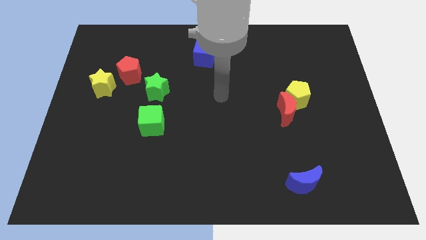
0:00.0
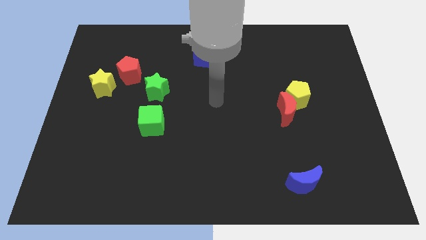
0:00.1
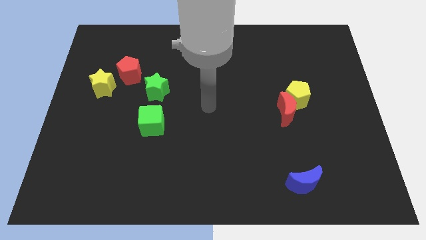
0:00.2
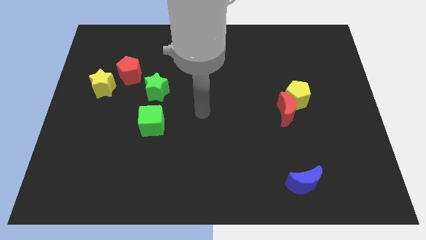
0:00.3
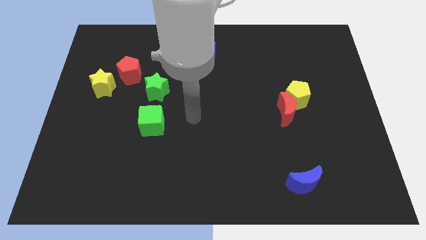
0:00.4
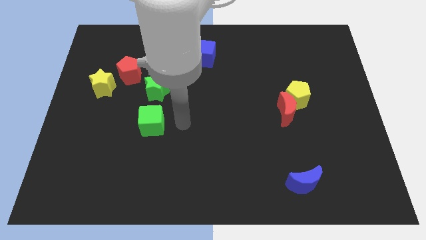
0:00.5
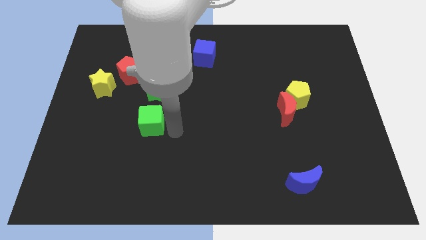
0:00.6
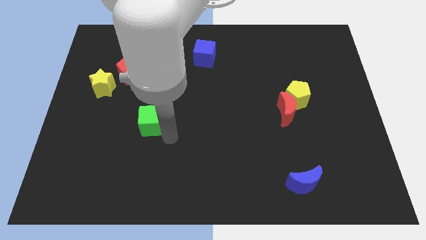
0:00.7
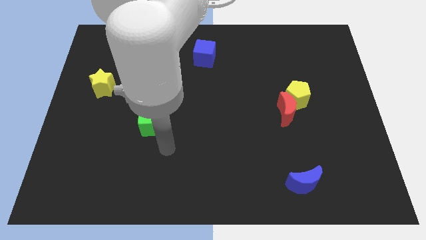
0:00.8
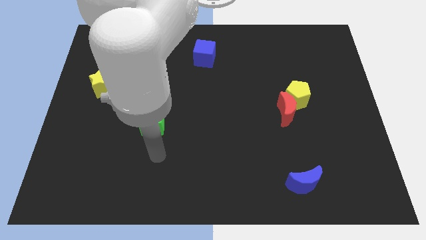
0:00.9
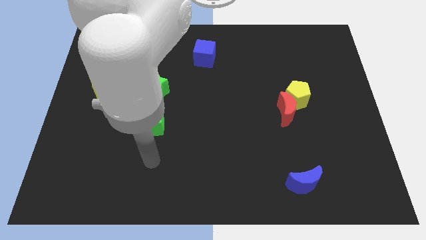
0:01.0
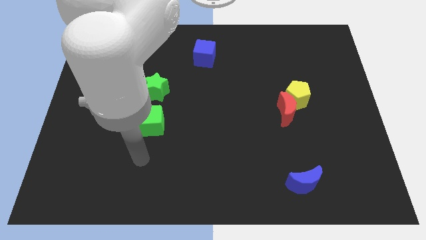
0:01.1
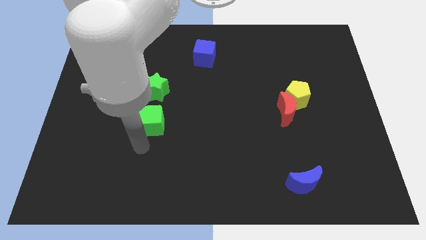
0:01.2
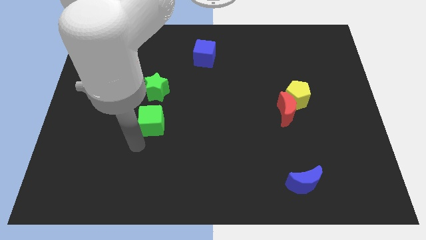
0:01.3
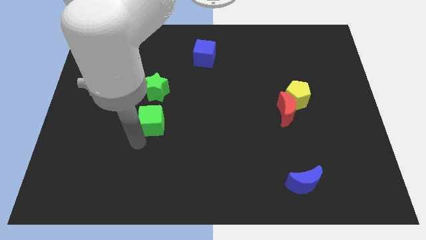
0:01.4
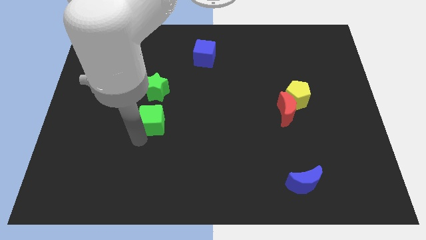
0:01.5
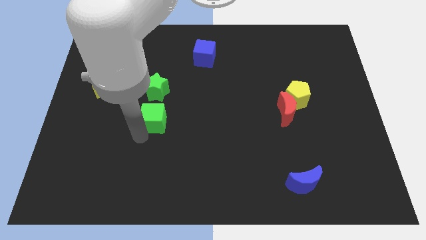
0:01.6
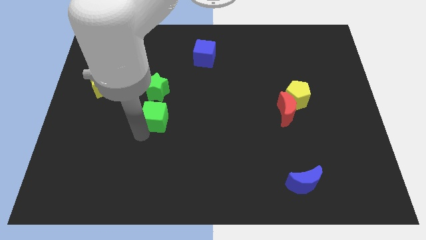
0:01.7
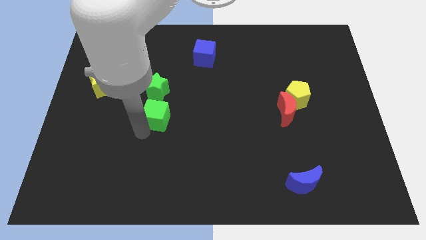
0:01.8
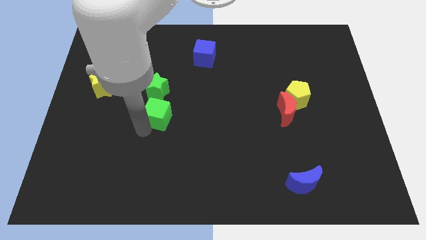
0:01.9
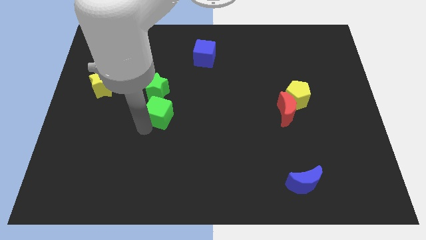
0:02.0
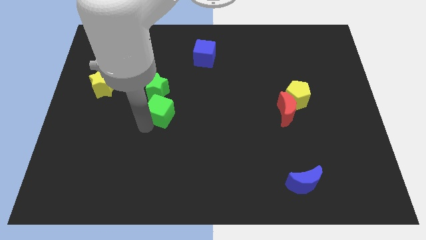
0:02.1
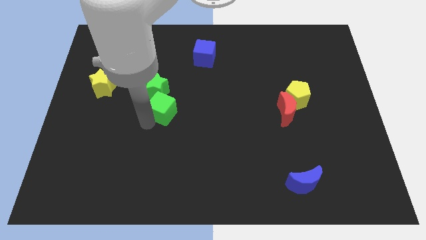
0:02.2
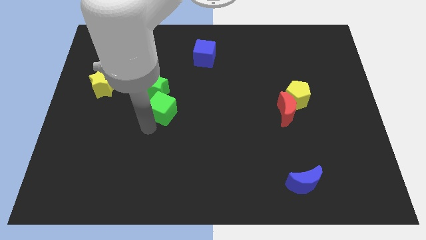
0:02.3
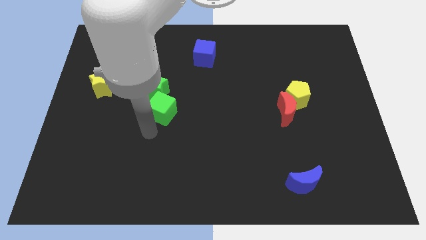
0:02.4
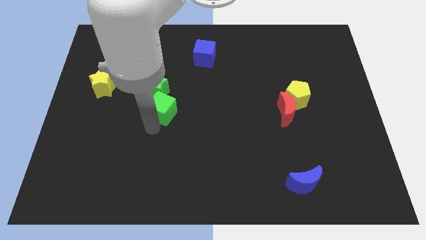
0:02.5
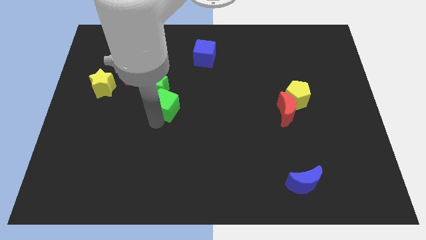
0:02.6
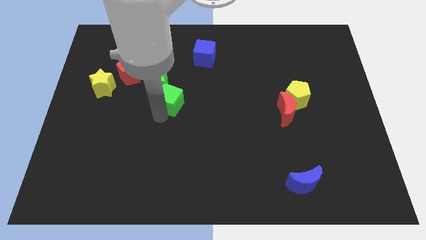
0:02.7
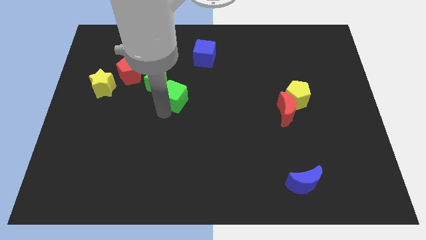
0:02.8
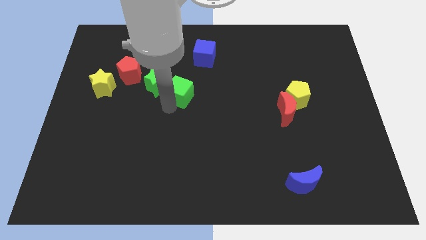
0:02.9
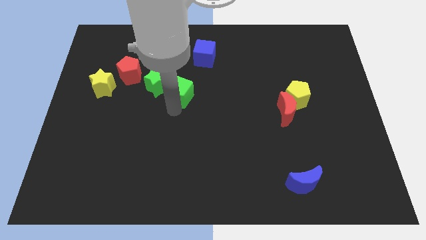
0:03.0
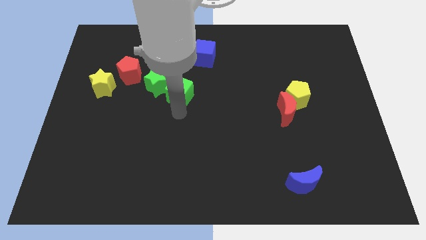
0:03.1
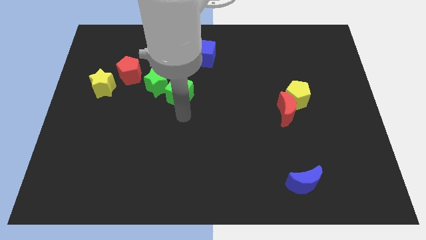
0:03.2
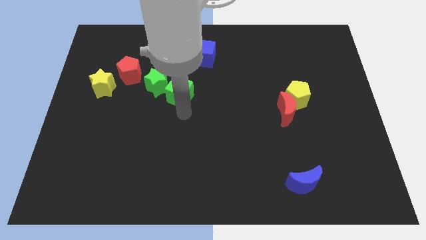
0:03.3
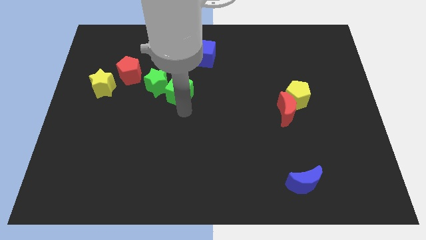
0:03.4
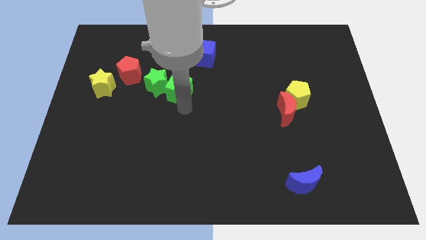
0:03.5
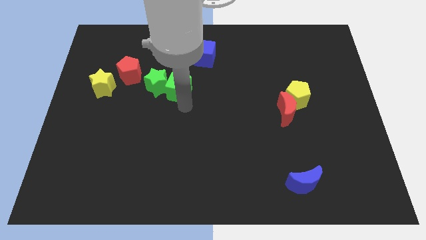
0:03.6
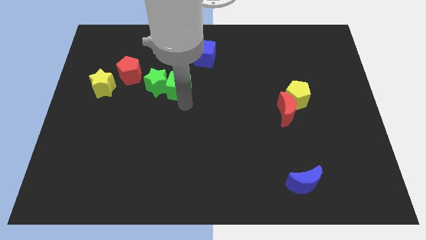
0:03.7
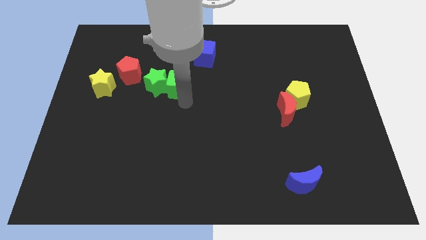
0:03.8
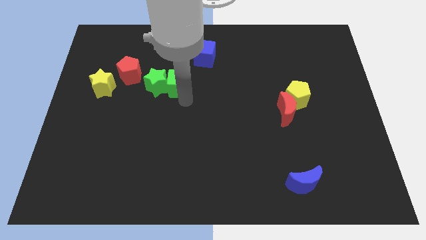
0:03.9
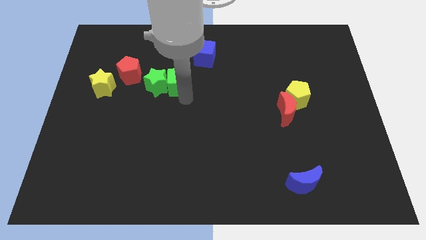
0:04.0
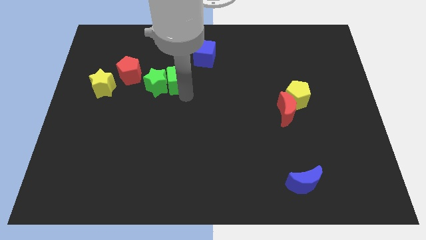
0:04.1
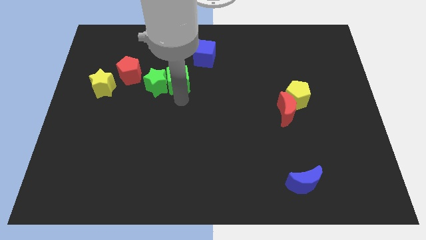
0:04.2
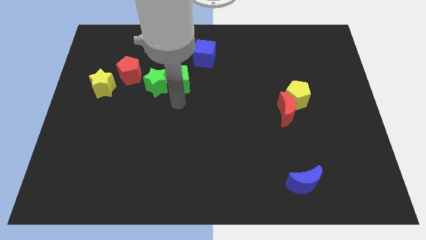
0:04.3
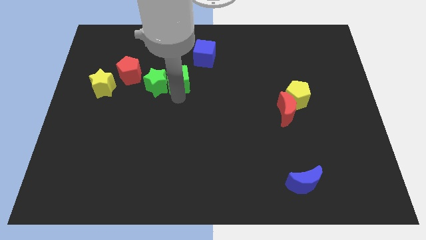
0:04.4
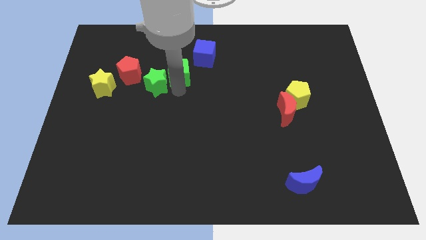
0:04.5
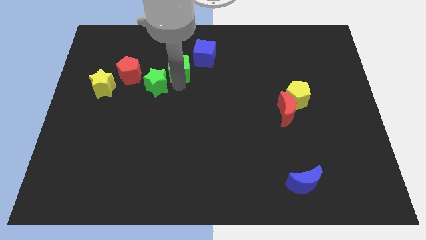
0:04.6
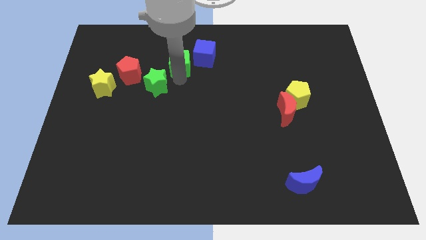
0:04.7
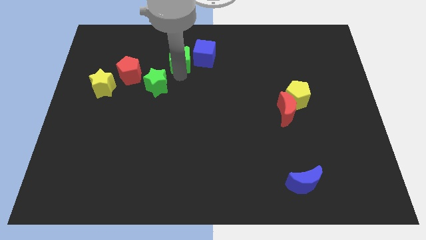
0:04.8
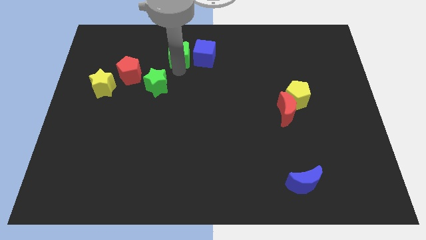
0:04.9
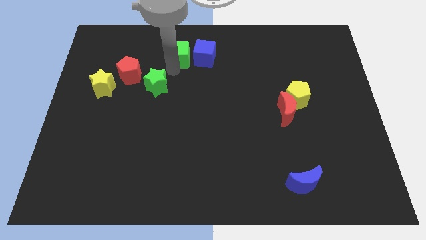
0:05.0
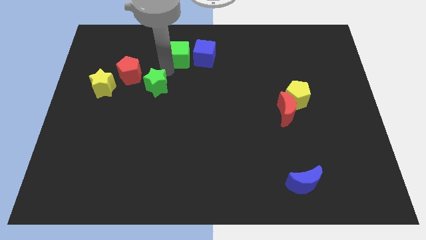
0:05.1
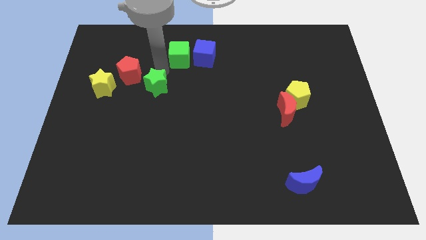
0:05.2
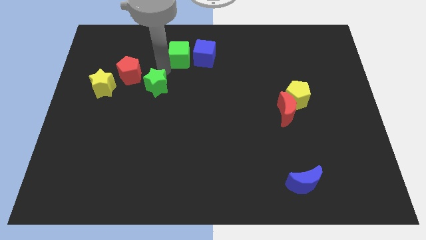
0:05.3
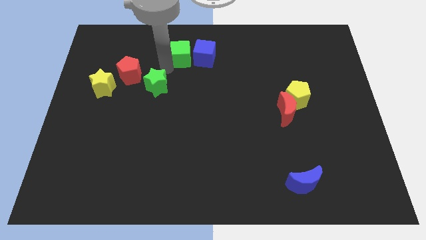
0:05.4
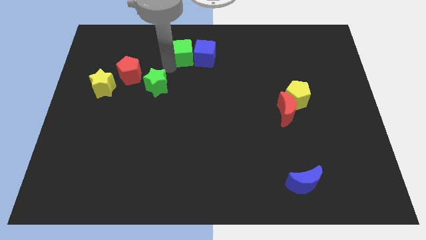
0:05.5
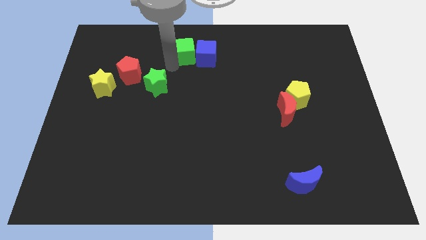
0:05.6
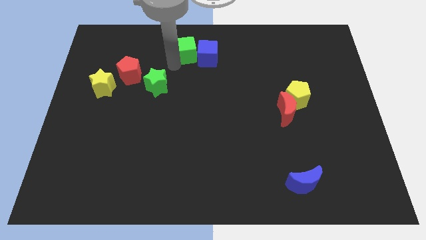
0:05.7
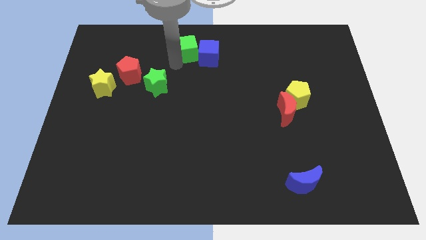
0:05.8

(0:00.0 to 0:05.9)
push the green cube to the top
